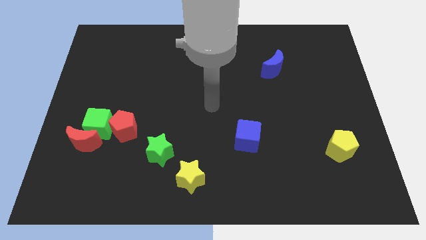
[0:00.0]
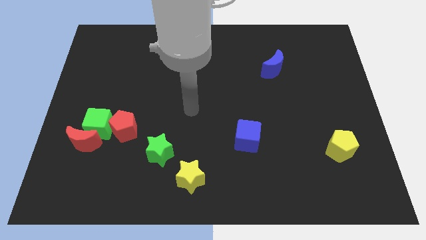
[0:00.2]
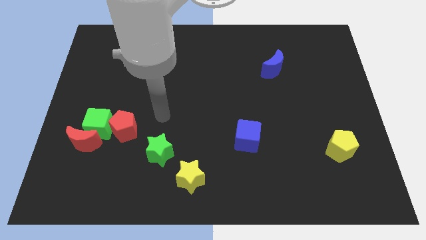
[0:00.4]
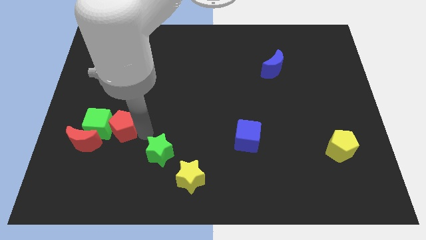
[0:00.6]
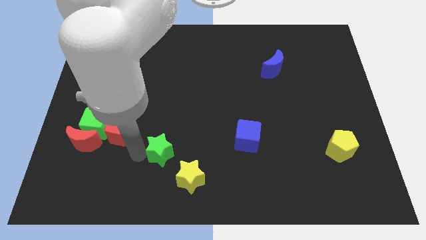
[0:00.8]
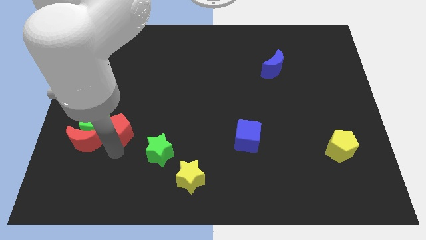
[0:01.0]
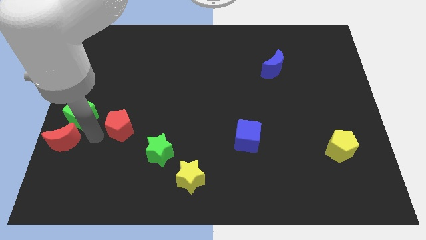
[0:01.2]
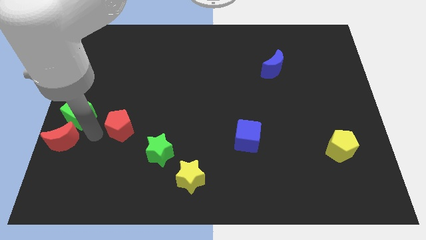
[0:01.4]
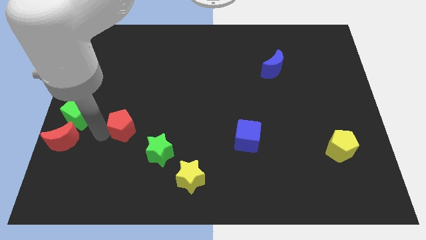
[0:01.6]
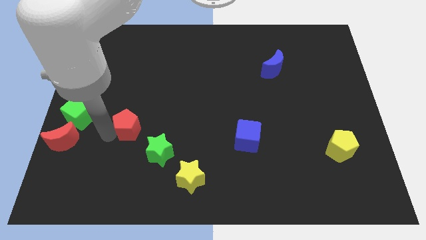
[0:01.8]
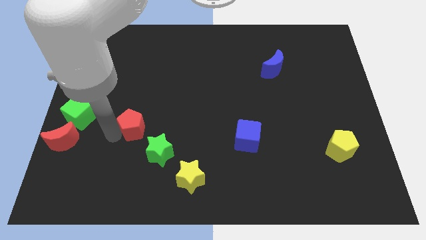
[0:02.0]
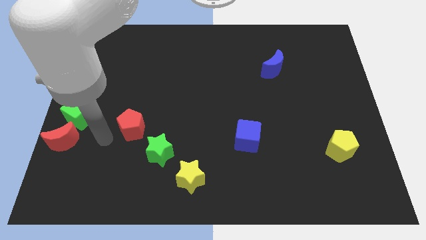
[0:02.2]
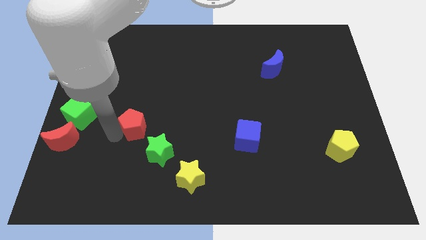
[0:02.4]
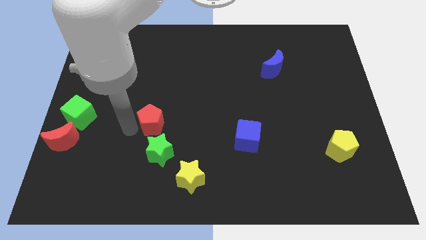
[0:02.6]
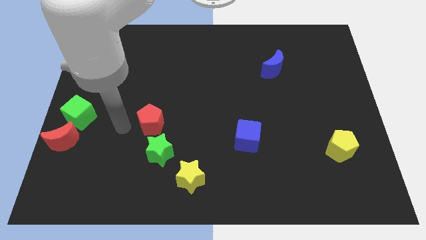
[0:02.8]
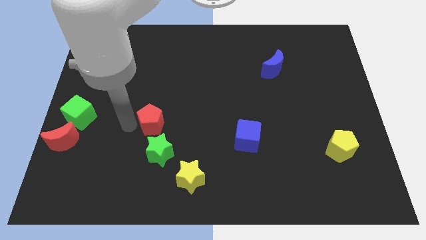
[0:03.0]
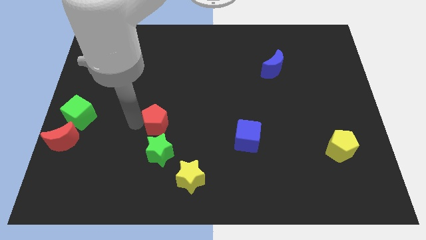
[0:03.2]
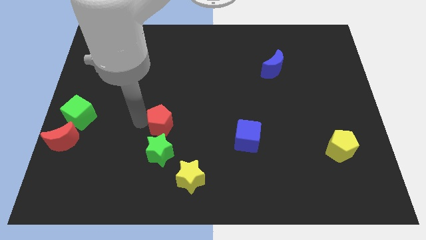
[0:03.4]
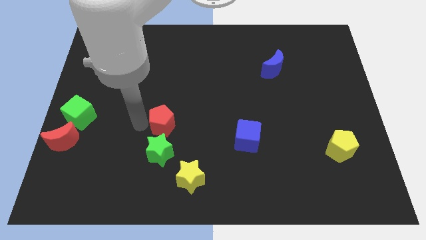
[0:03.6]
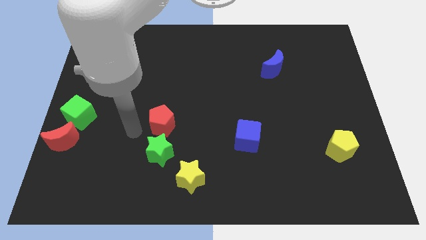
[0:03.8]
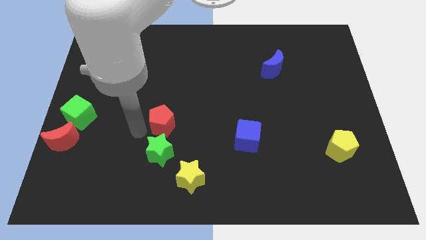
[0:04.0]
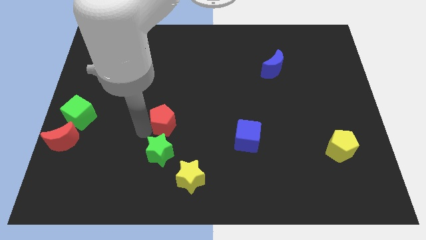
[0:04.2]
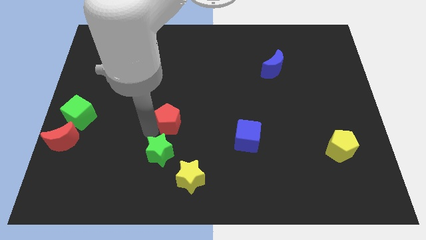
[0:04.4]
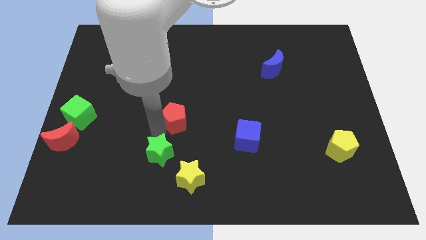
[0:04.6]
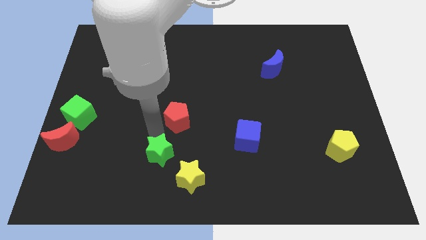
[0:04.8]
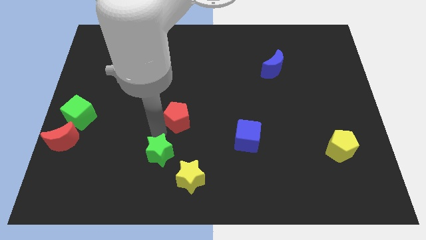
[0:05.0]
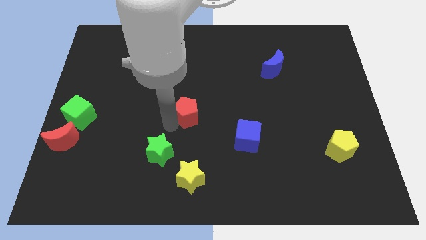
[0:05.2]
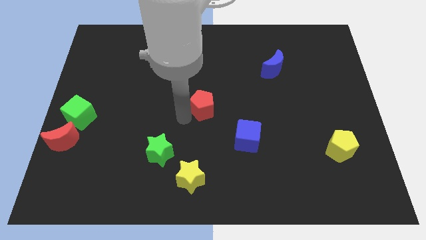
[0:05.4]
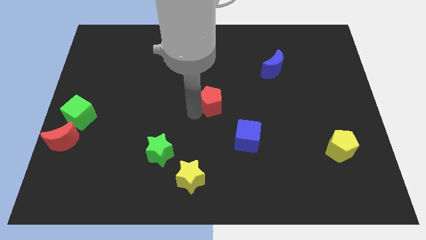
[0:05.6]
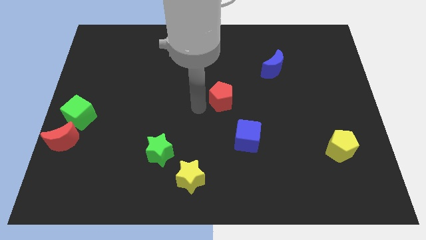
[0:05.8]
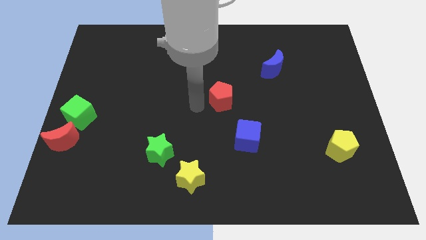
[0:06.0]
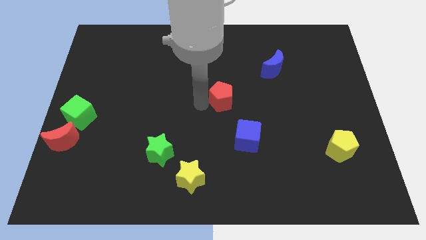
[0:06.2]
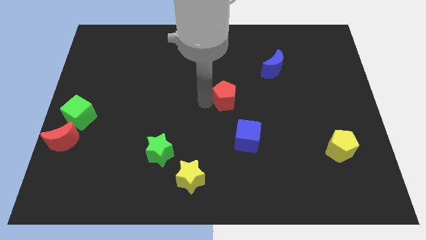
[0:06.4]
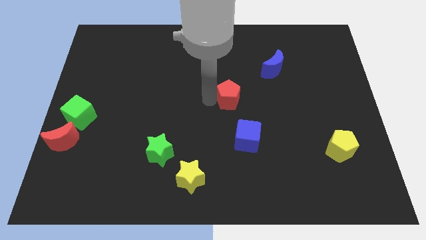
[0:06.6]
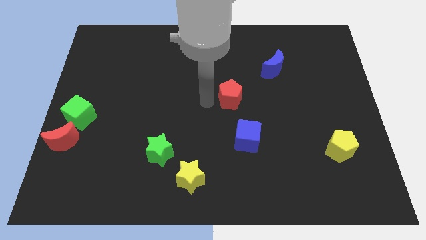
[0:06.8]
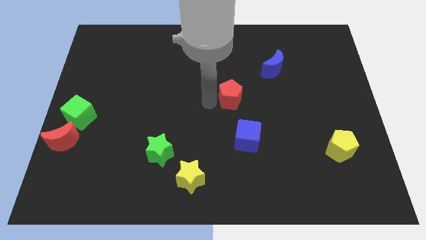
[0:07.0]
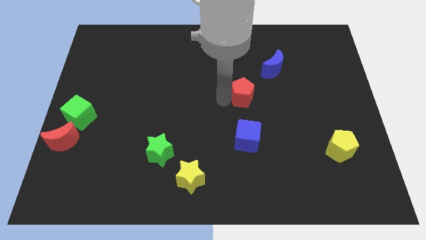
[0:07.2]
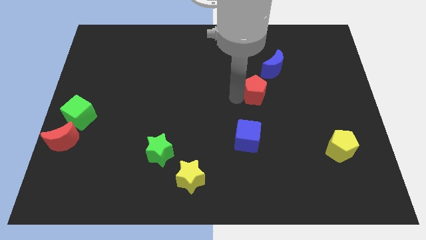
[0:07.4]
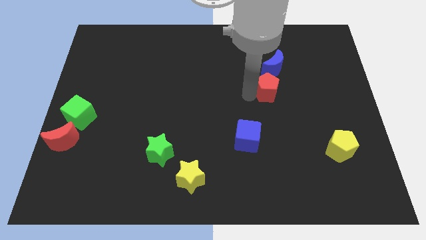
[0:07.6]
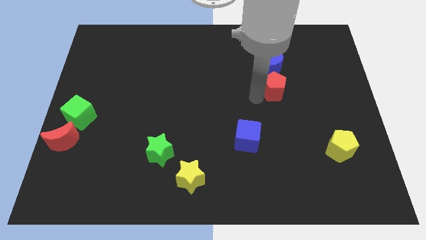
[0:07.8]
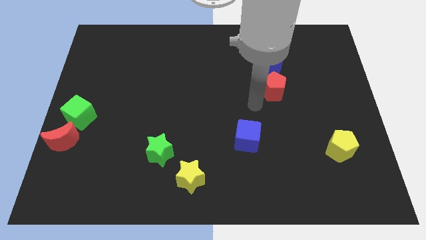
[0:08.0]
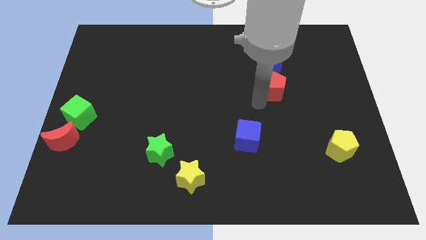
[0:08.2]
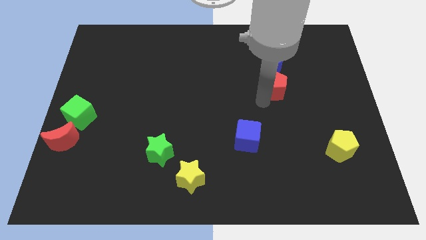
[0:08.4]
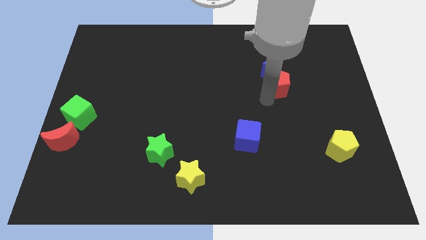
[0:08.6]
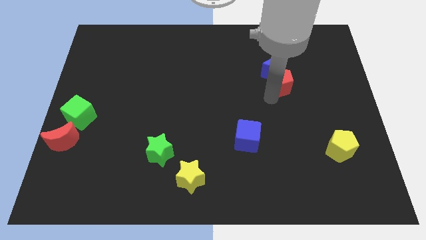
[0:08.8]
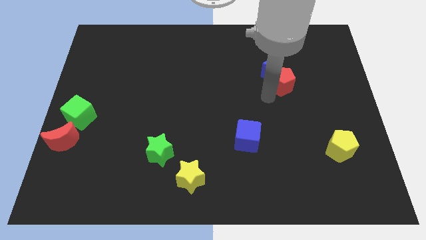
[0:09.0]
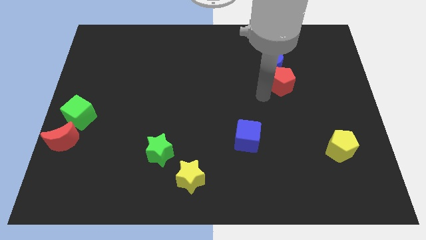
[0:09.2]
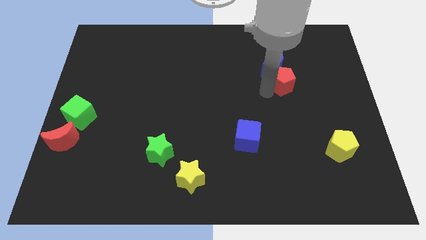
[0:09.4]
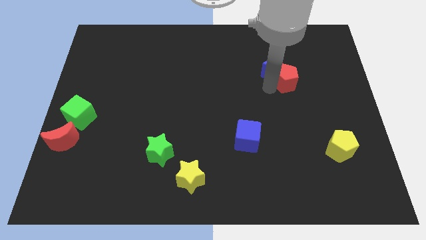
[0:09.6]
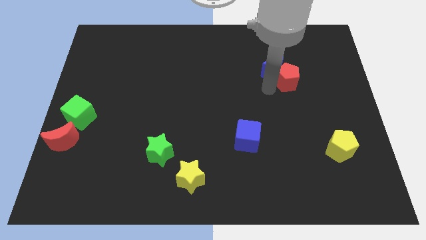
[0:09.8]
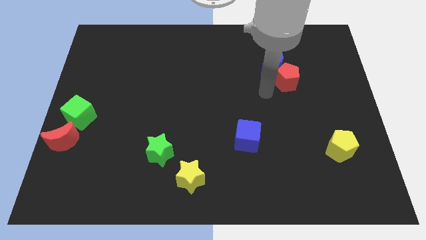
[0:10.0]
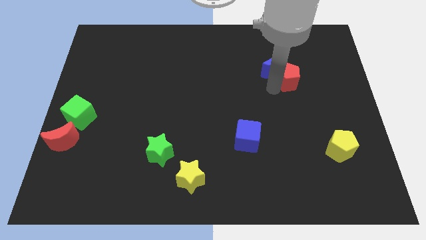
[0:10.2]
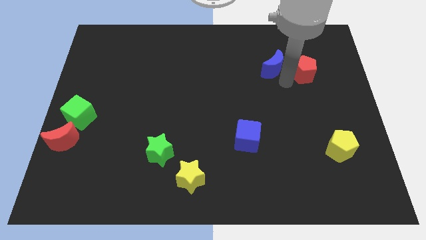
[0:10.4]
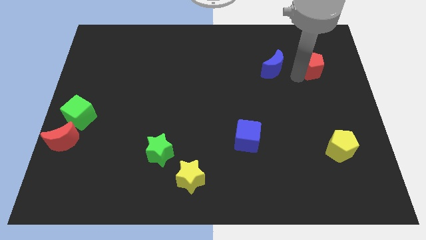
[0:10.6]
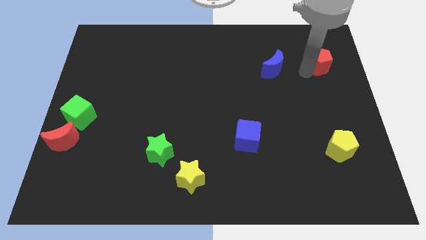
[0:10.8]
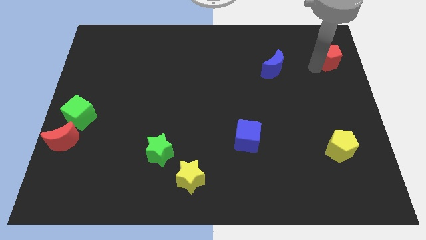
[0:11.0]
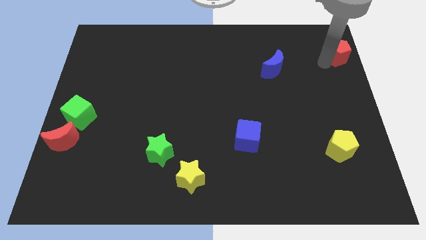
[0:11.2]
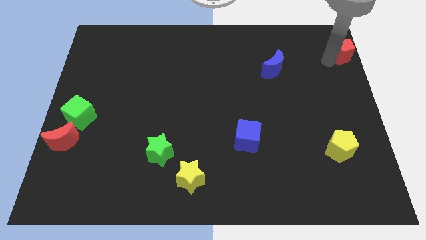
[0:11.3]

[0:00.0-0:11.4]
push the red pentagon to the top right corner
